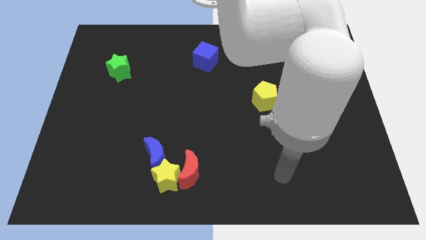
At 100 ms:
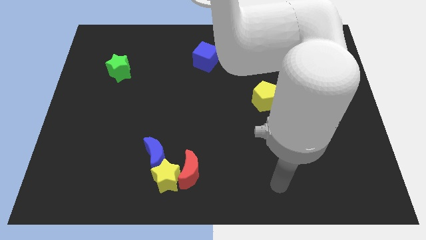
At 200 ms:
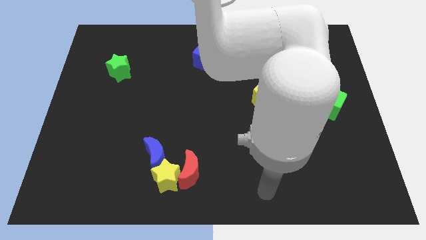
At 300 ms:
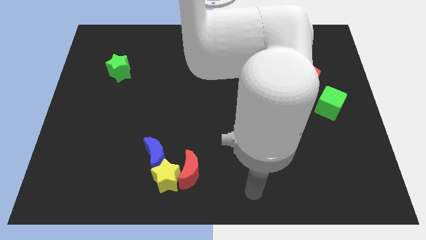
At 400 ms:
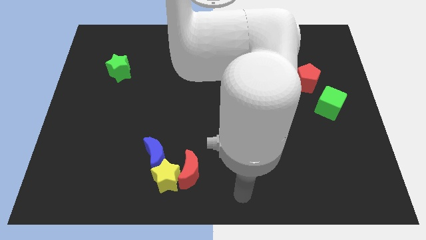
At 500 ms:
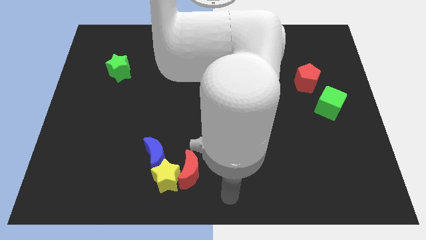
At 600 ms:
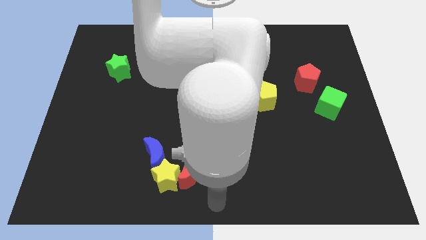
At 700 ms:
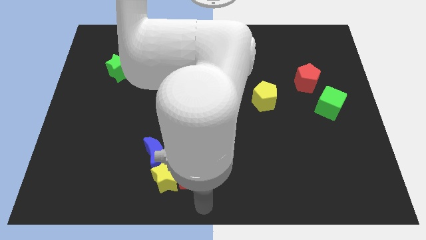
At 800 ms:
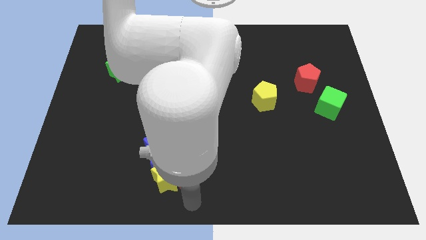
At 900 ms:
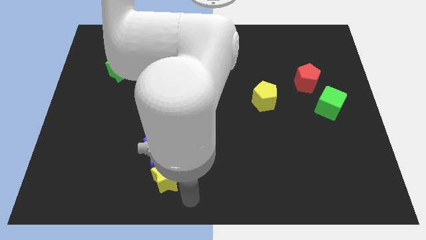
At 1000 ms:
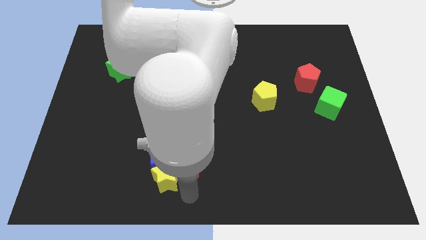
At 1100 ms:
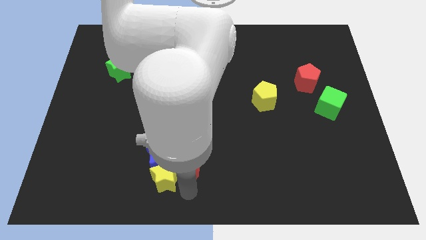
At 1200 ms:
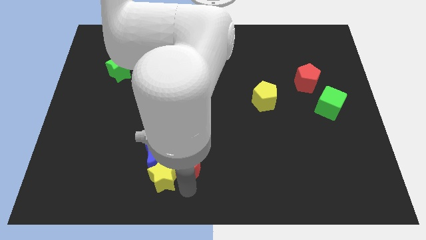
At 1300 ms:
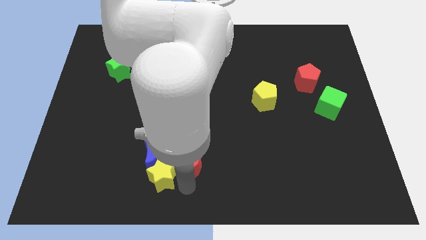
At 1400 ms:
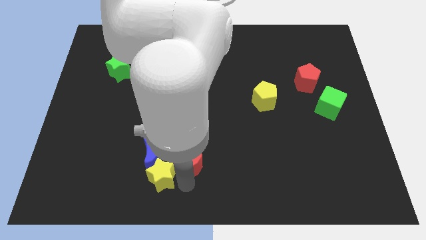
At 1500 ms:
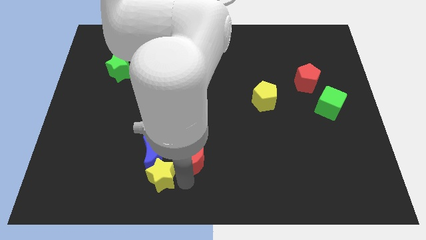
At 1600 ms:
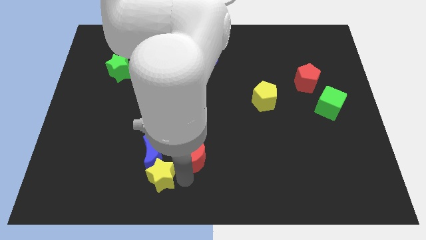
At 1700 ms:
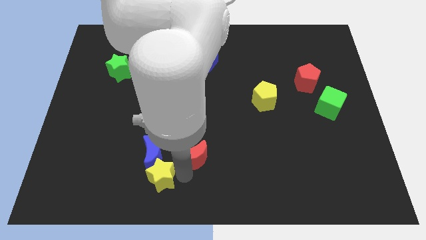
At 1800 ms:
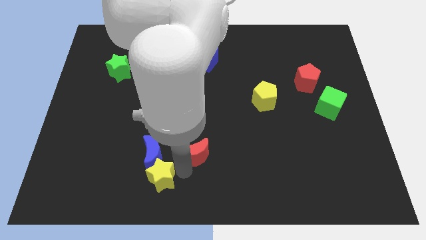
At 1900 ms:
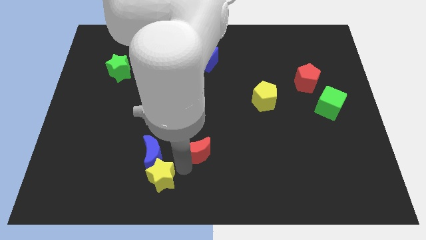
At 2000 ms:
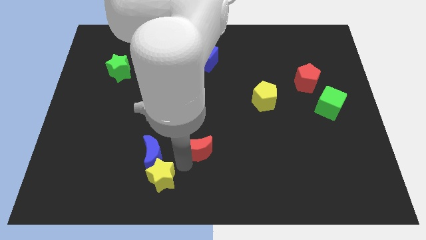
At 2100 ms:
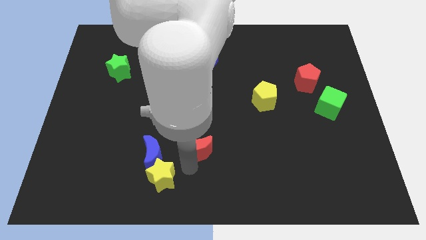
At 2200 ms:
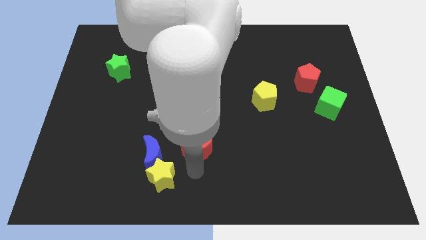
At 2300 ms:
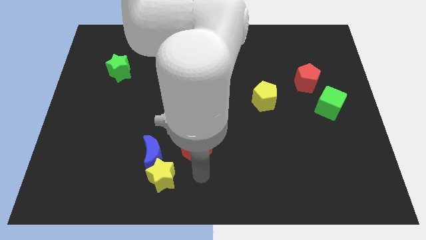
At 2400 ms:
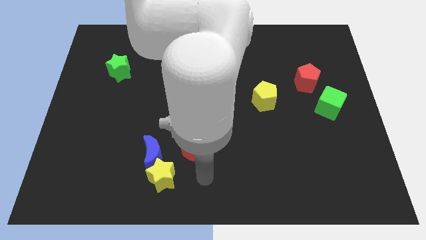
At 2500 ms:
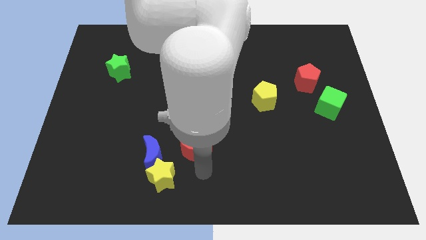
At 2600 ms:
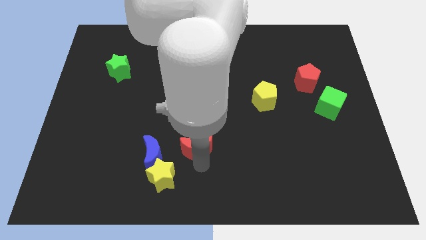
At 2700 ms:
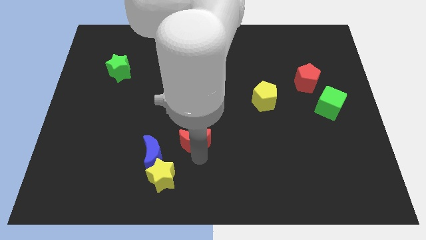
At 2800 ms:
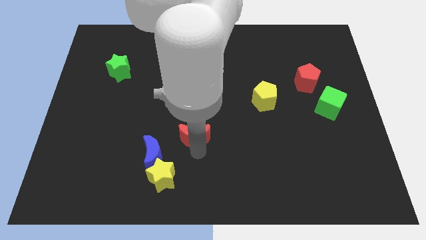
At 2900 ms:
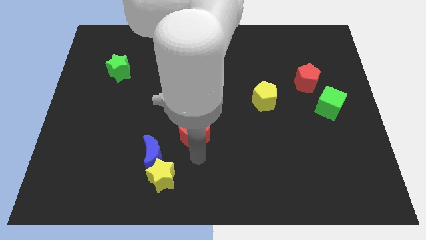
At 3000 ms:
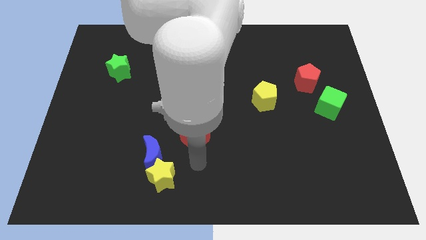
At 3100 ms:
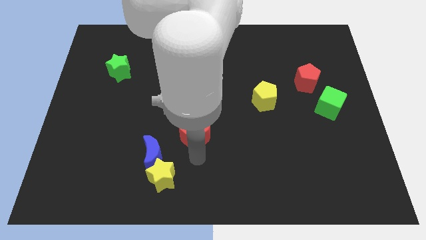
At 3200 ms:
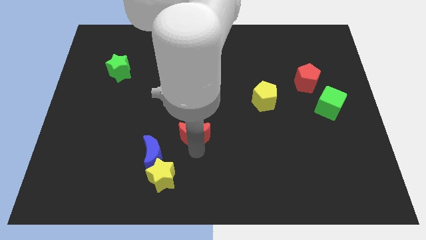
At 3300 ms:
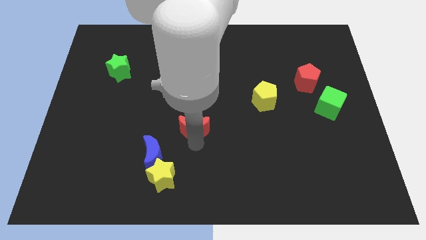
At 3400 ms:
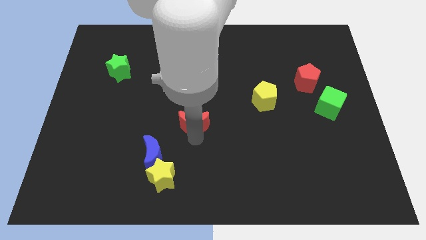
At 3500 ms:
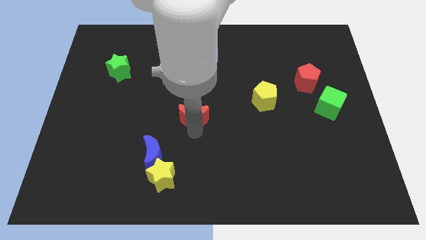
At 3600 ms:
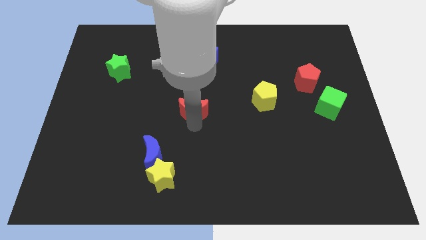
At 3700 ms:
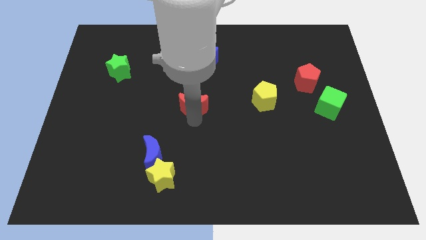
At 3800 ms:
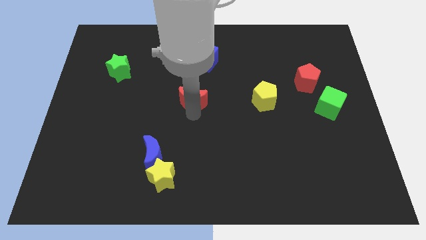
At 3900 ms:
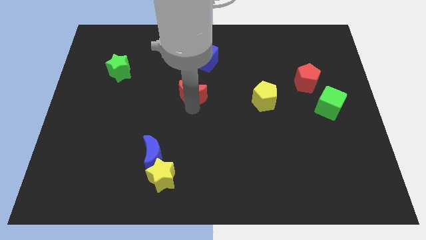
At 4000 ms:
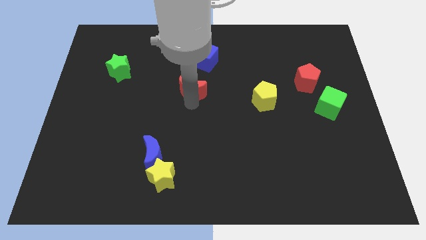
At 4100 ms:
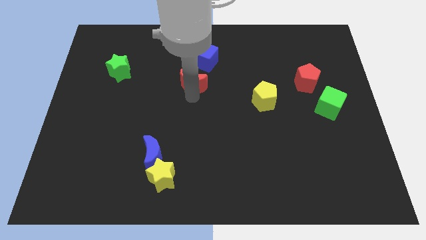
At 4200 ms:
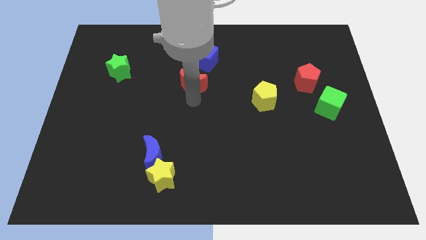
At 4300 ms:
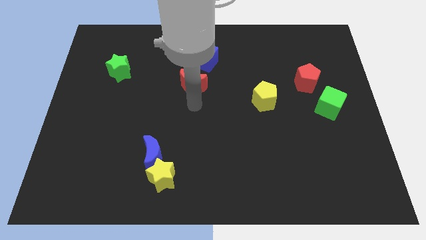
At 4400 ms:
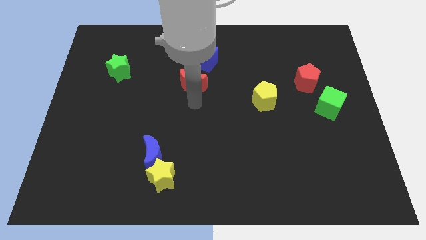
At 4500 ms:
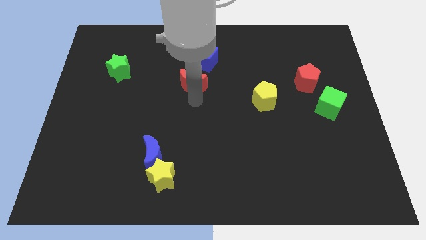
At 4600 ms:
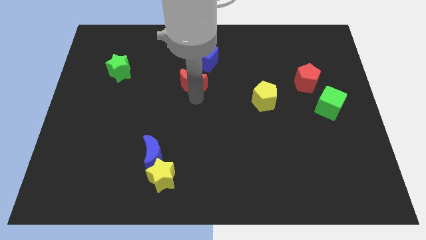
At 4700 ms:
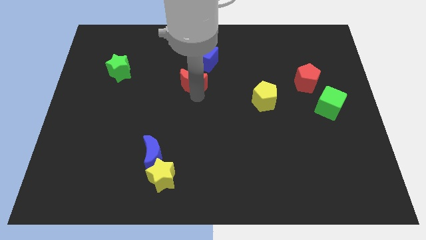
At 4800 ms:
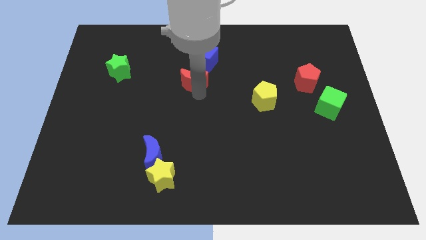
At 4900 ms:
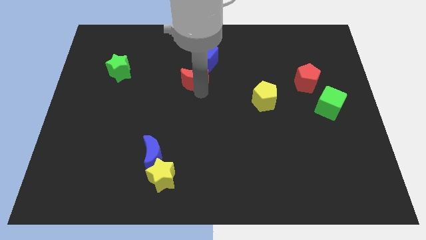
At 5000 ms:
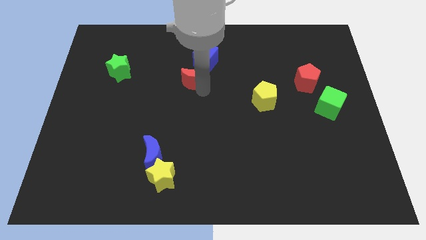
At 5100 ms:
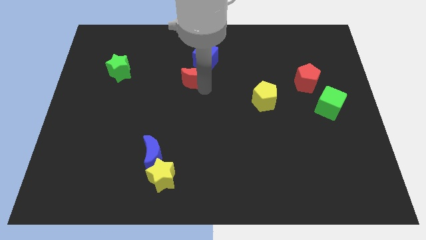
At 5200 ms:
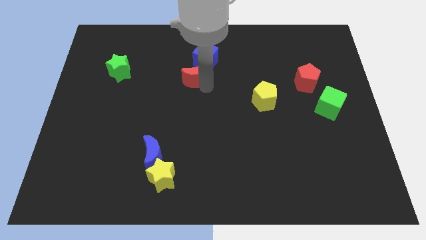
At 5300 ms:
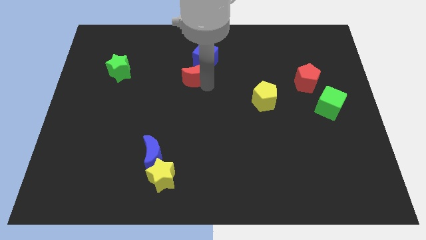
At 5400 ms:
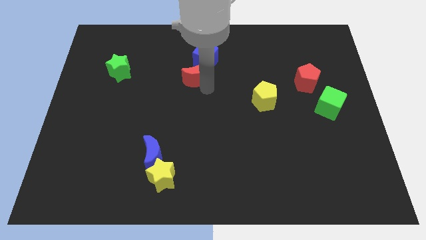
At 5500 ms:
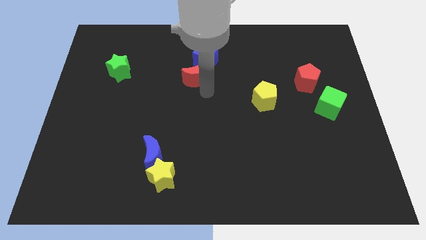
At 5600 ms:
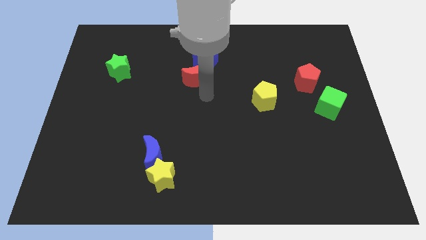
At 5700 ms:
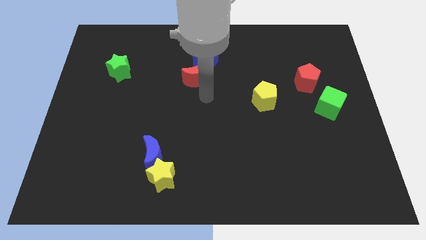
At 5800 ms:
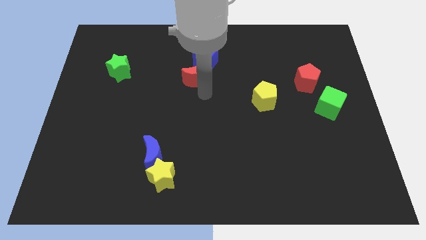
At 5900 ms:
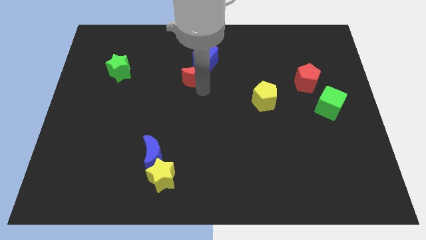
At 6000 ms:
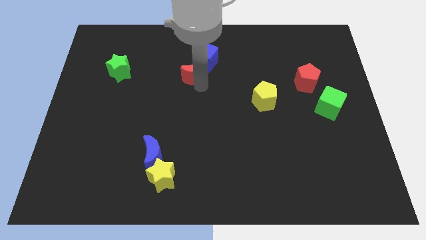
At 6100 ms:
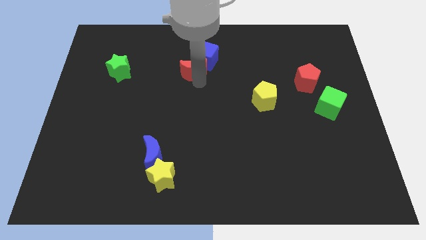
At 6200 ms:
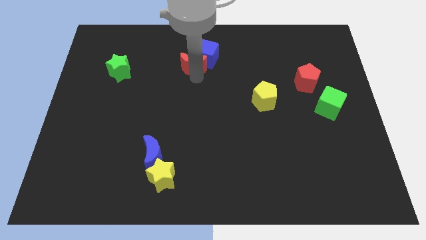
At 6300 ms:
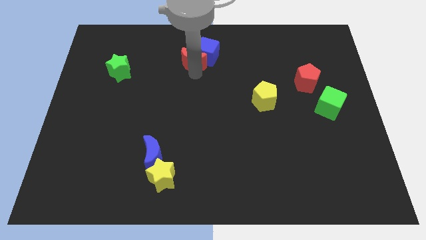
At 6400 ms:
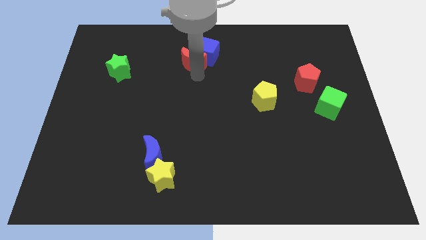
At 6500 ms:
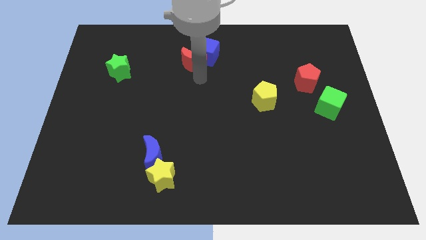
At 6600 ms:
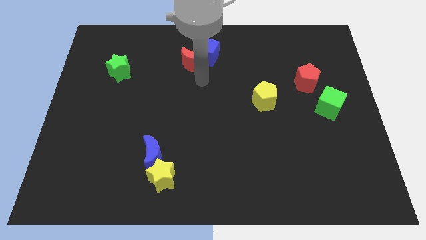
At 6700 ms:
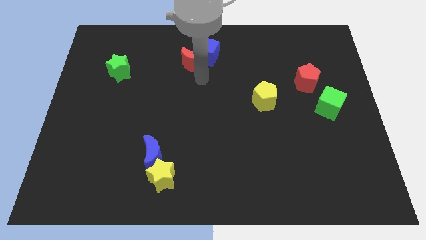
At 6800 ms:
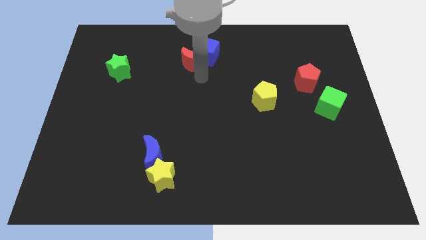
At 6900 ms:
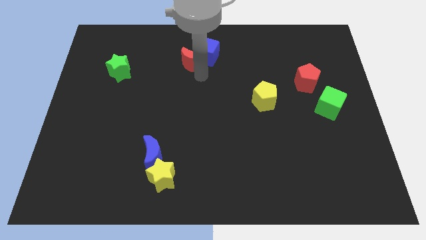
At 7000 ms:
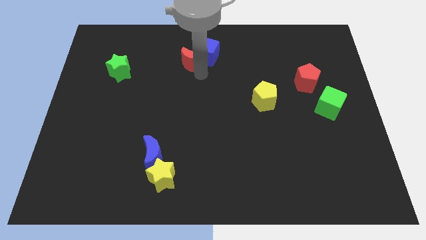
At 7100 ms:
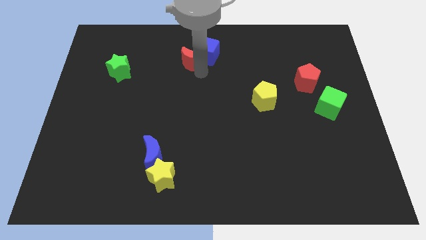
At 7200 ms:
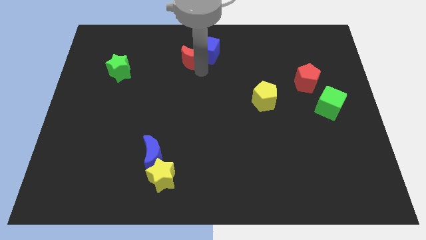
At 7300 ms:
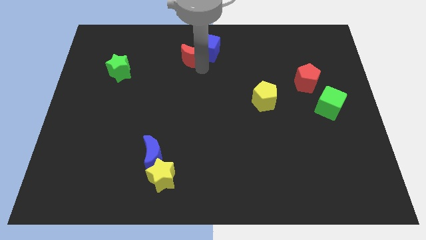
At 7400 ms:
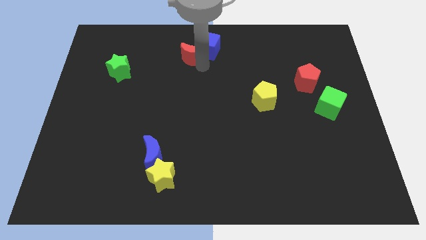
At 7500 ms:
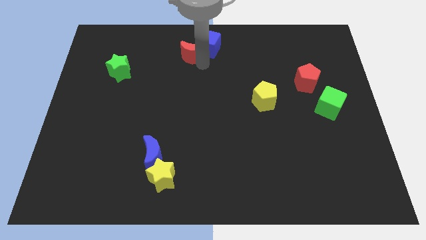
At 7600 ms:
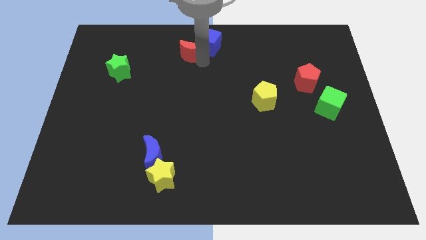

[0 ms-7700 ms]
move the red moon to the top side
